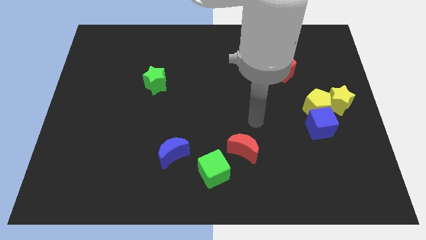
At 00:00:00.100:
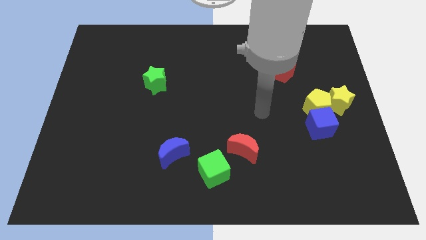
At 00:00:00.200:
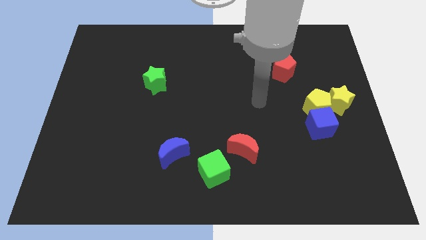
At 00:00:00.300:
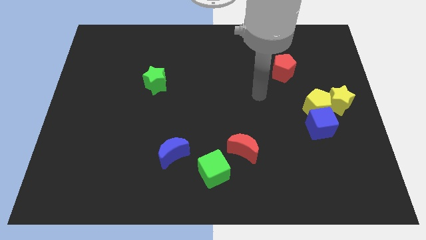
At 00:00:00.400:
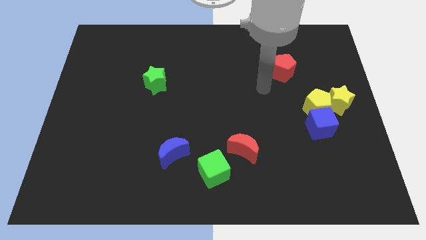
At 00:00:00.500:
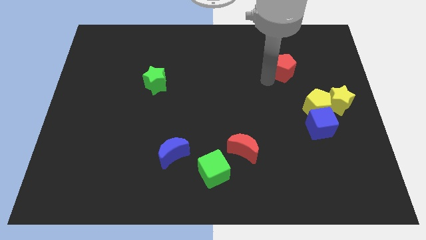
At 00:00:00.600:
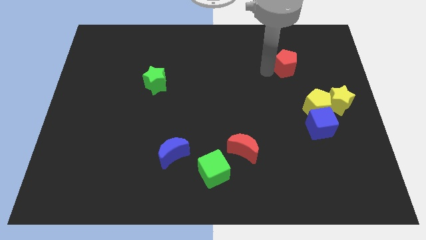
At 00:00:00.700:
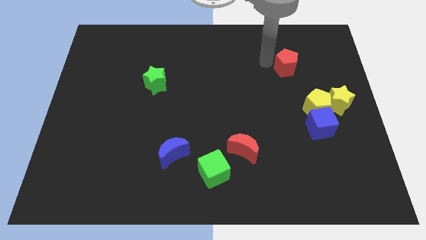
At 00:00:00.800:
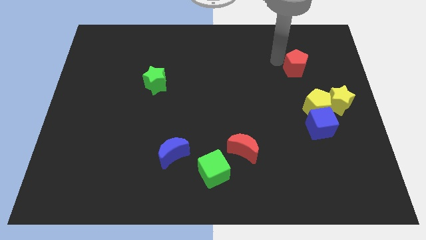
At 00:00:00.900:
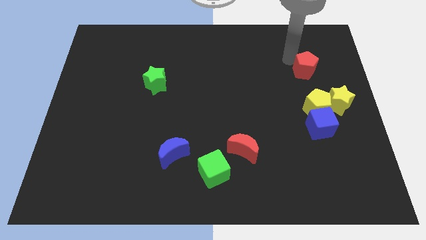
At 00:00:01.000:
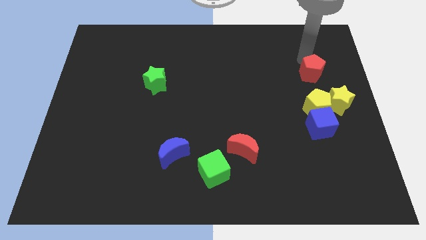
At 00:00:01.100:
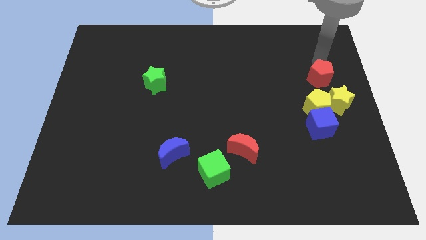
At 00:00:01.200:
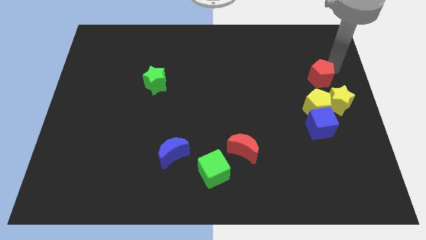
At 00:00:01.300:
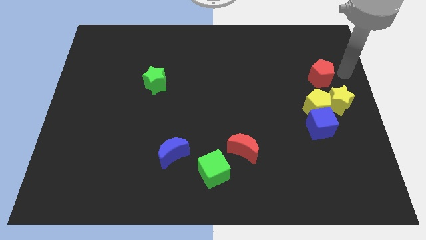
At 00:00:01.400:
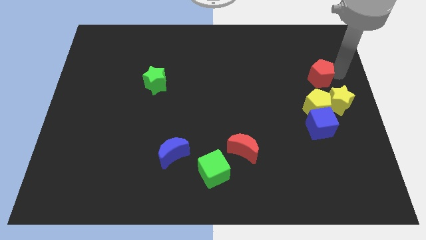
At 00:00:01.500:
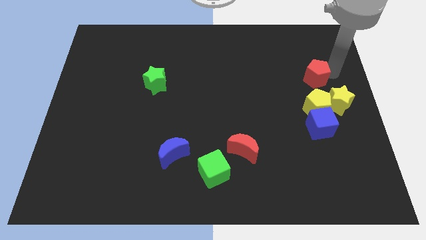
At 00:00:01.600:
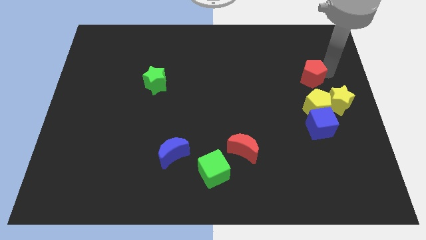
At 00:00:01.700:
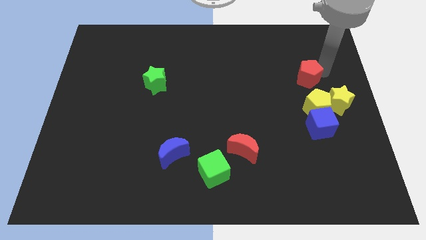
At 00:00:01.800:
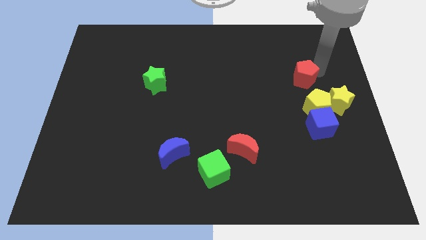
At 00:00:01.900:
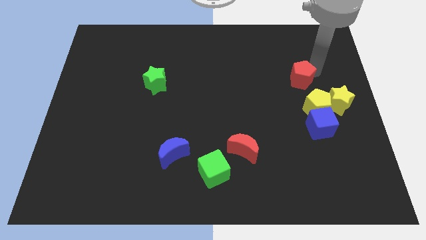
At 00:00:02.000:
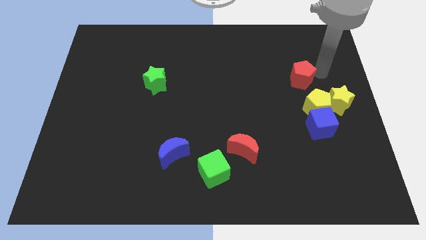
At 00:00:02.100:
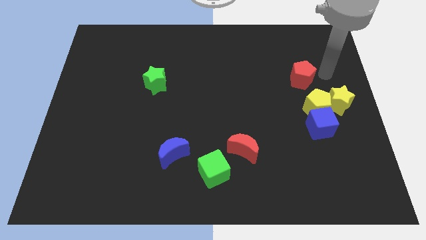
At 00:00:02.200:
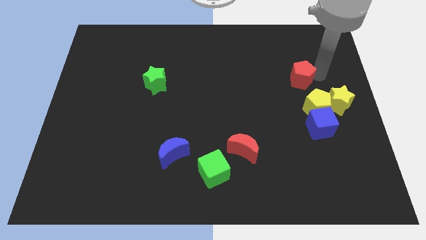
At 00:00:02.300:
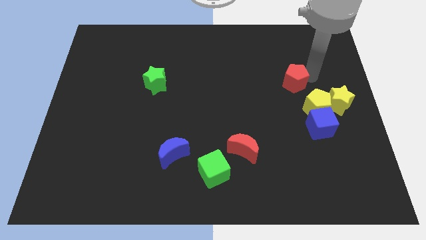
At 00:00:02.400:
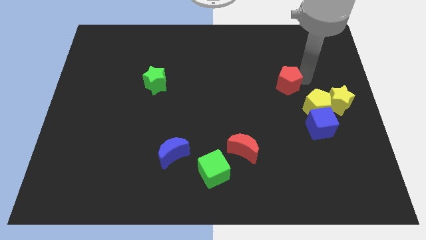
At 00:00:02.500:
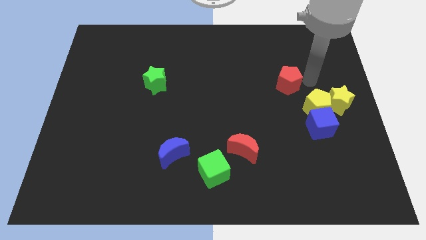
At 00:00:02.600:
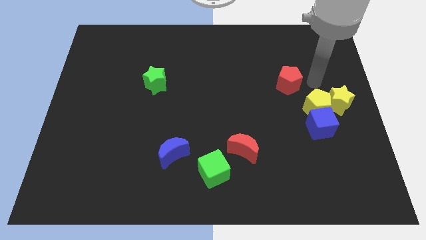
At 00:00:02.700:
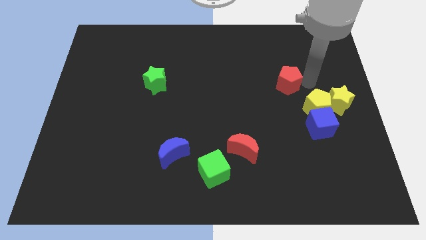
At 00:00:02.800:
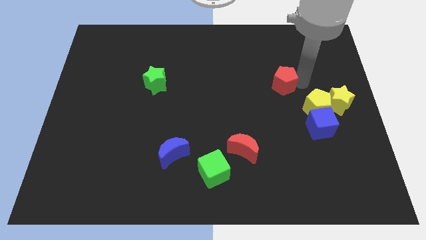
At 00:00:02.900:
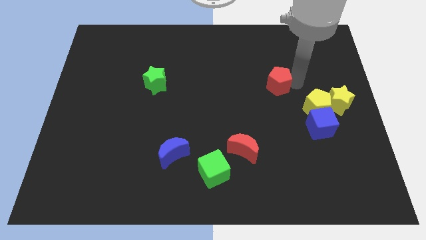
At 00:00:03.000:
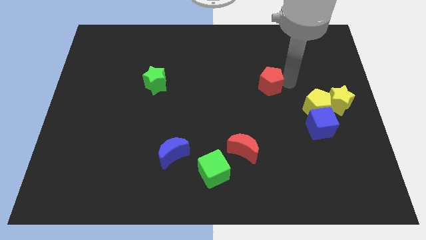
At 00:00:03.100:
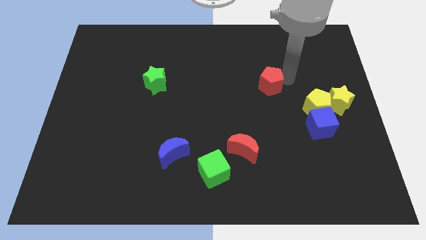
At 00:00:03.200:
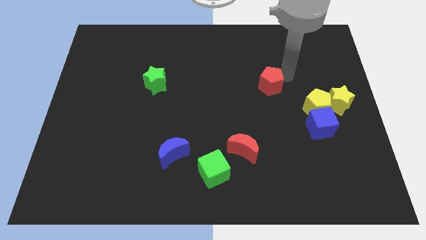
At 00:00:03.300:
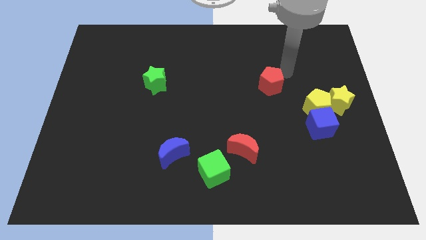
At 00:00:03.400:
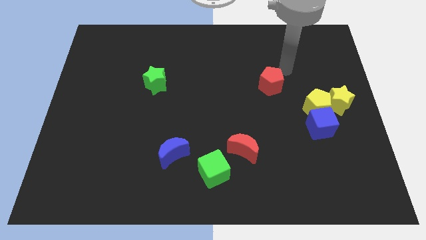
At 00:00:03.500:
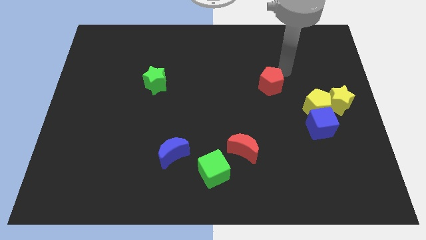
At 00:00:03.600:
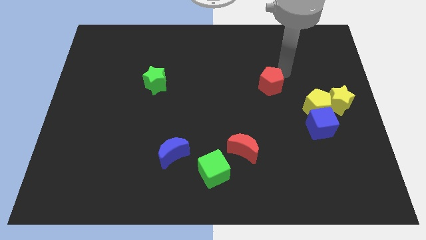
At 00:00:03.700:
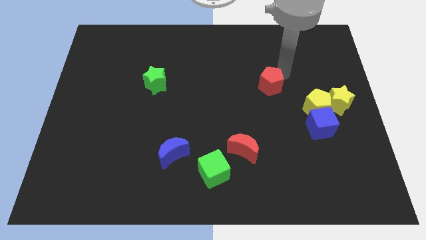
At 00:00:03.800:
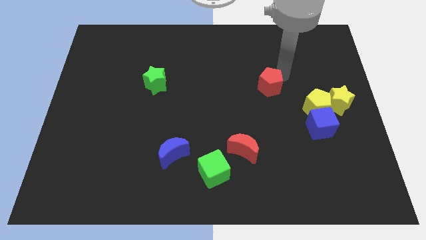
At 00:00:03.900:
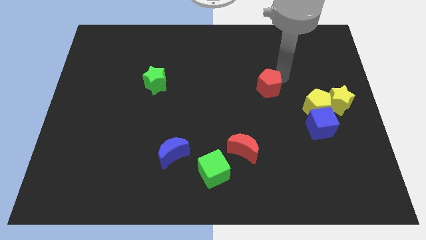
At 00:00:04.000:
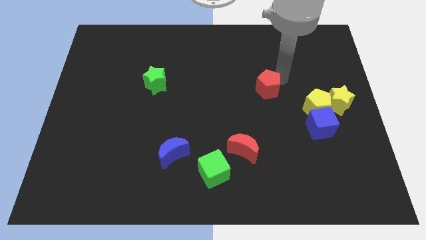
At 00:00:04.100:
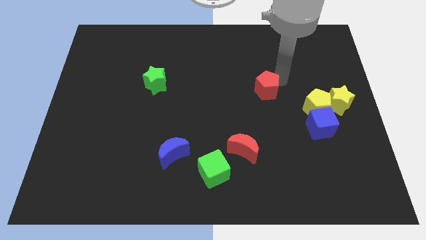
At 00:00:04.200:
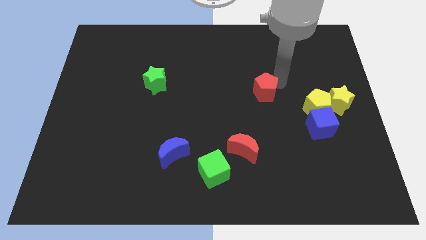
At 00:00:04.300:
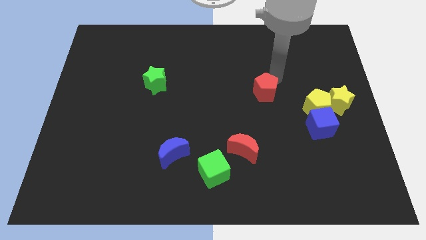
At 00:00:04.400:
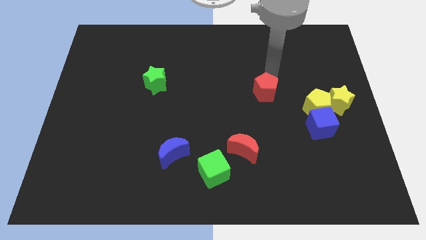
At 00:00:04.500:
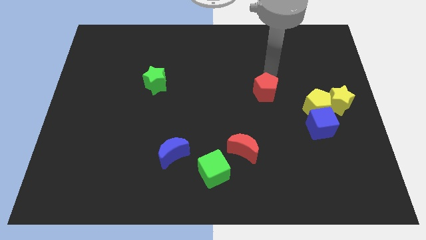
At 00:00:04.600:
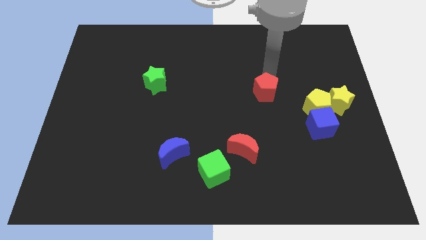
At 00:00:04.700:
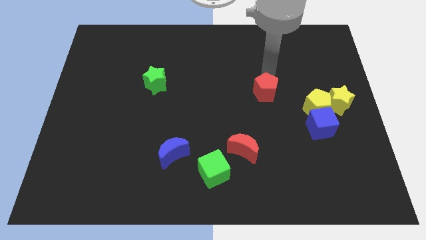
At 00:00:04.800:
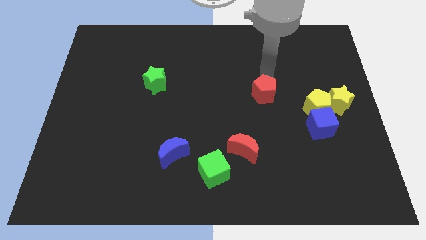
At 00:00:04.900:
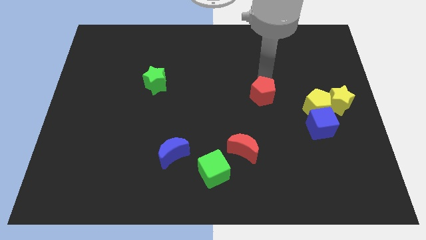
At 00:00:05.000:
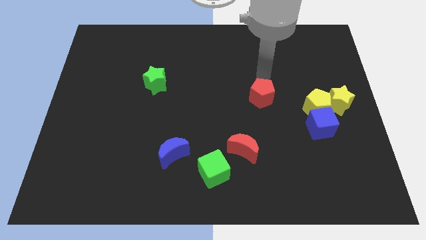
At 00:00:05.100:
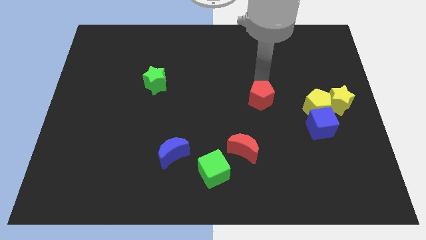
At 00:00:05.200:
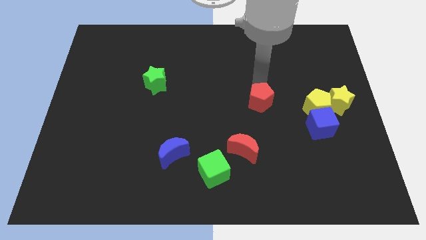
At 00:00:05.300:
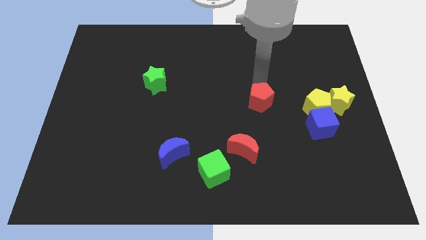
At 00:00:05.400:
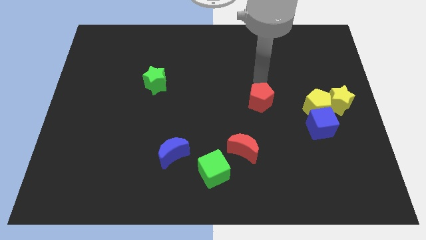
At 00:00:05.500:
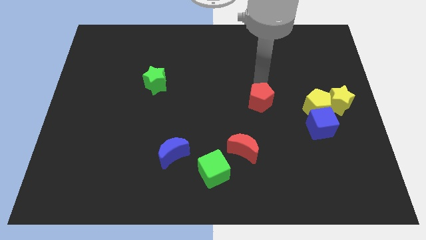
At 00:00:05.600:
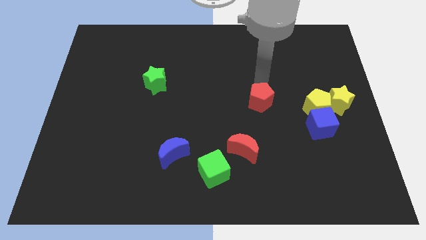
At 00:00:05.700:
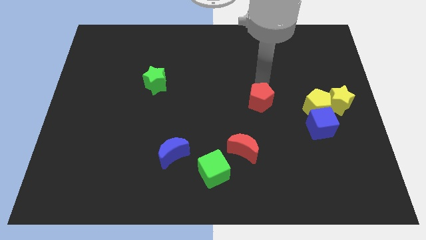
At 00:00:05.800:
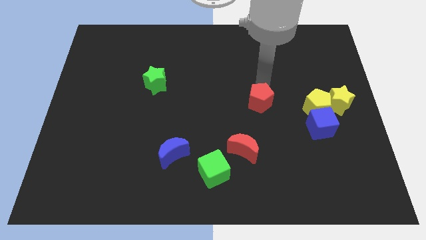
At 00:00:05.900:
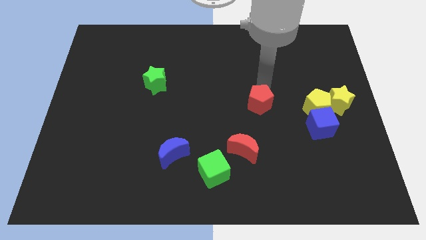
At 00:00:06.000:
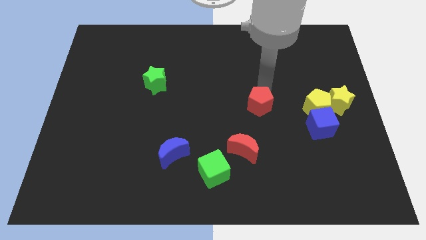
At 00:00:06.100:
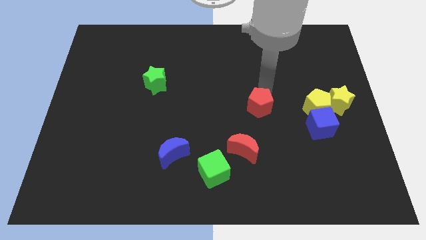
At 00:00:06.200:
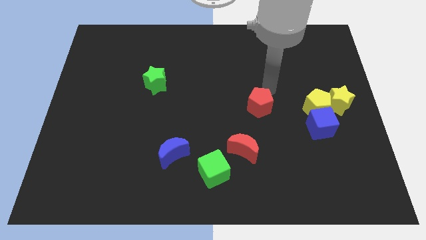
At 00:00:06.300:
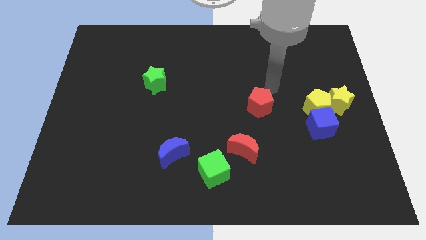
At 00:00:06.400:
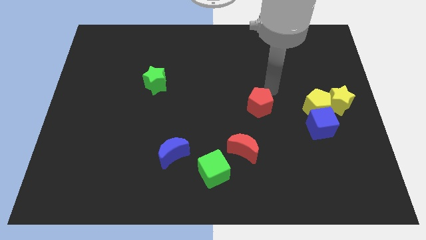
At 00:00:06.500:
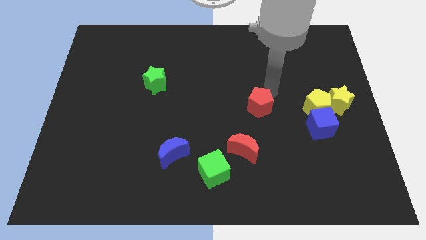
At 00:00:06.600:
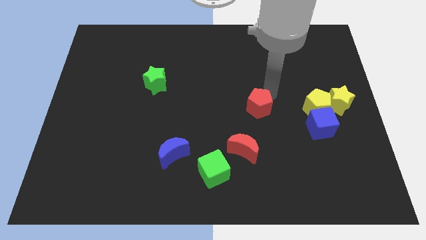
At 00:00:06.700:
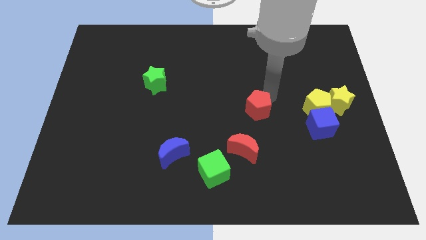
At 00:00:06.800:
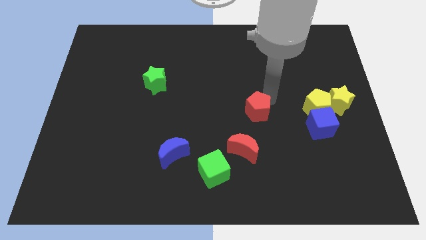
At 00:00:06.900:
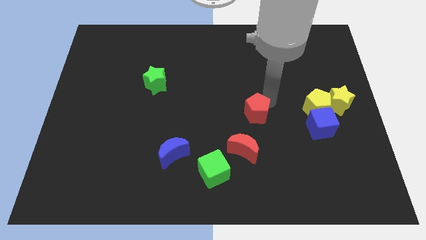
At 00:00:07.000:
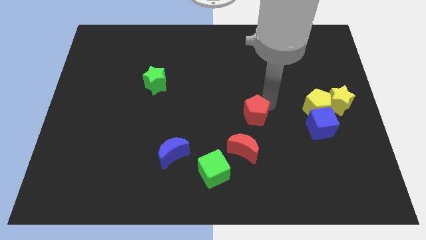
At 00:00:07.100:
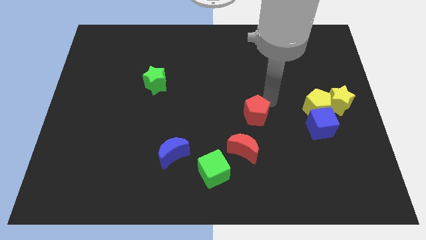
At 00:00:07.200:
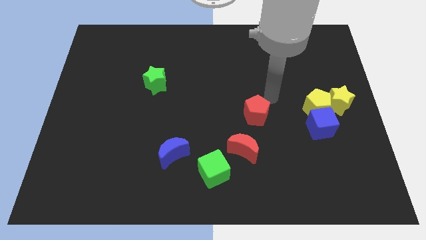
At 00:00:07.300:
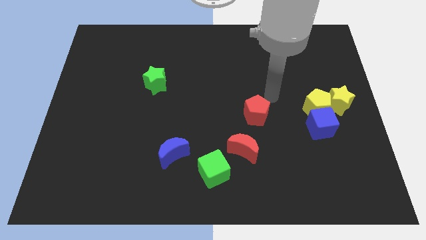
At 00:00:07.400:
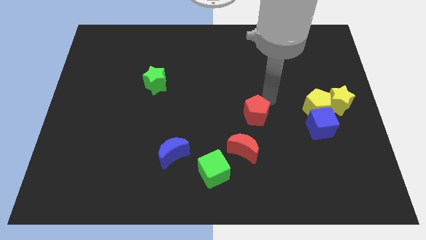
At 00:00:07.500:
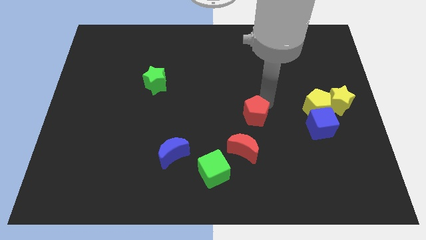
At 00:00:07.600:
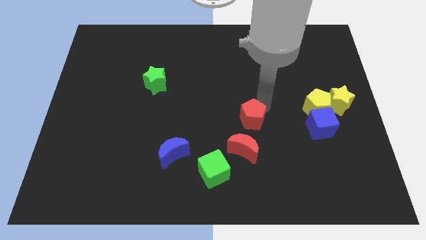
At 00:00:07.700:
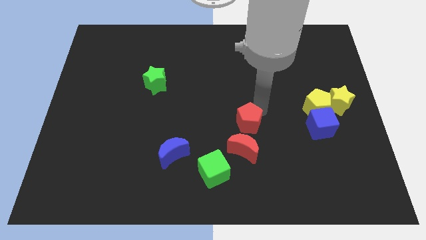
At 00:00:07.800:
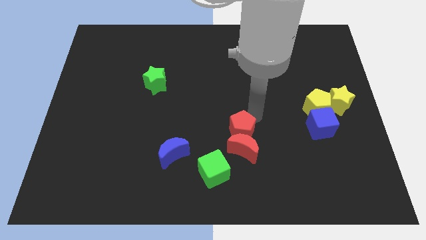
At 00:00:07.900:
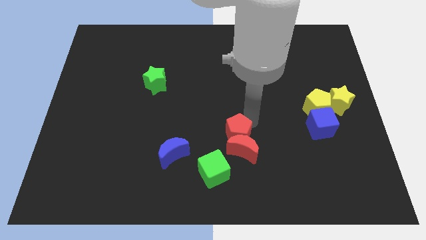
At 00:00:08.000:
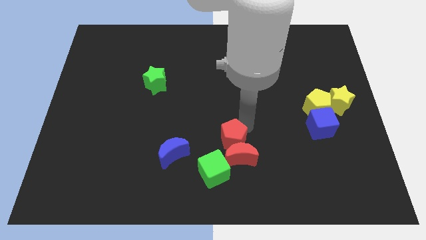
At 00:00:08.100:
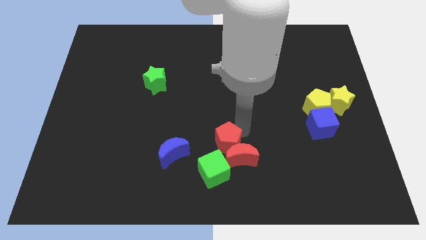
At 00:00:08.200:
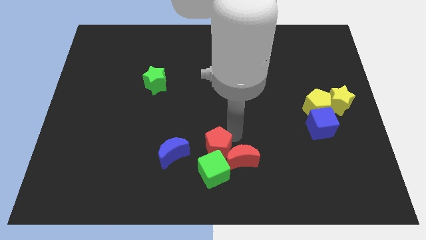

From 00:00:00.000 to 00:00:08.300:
move the red pentagon towards the green cube
